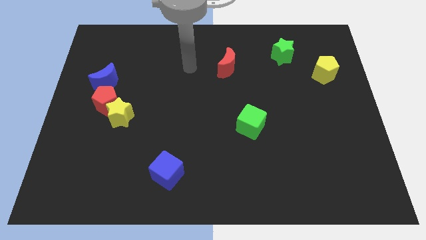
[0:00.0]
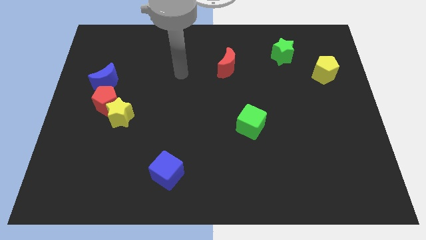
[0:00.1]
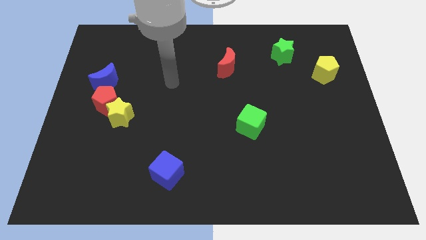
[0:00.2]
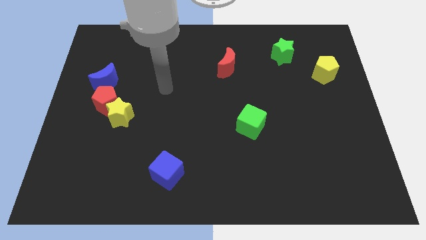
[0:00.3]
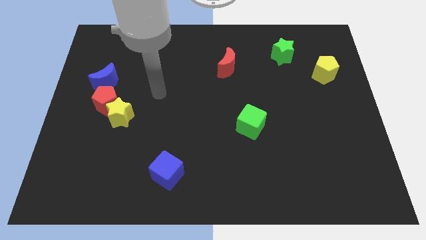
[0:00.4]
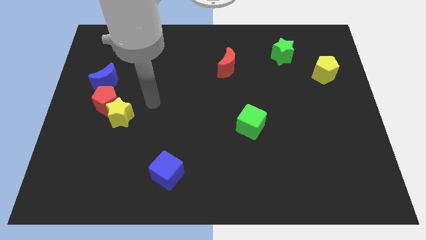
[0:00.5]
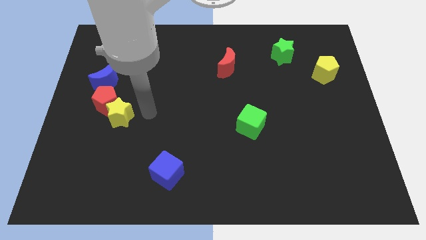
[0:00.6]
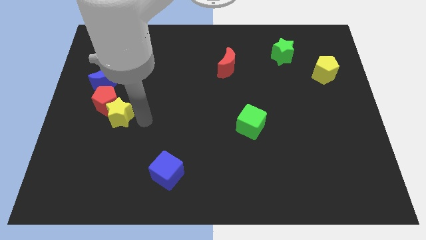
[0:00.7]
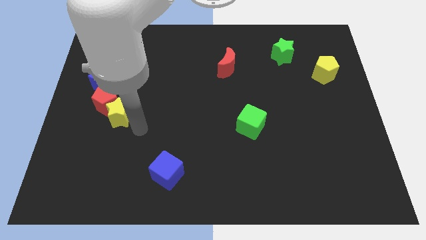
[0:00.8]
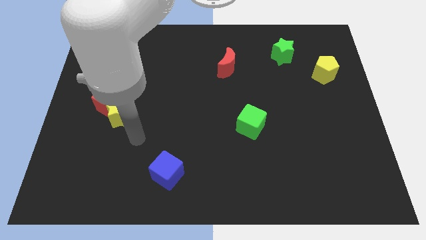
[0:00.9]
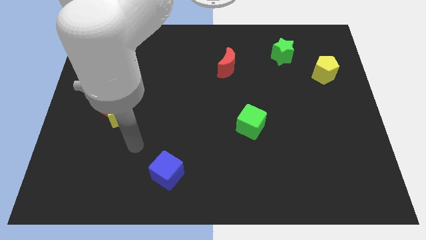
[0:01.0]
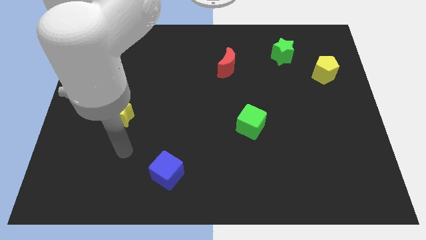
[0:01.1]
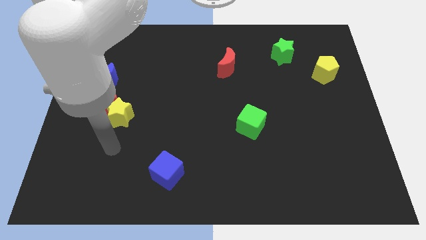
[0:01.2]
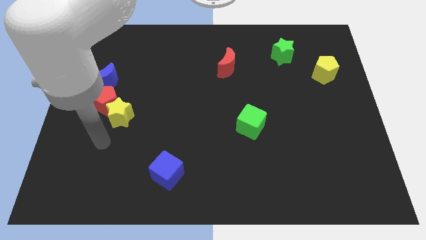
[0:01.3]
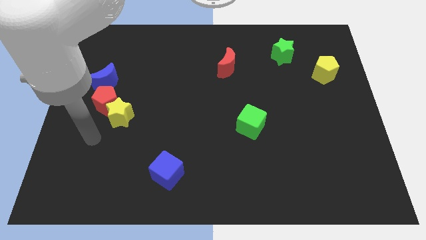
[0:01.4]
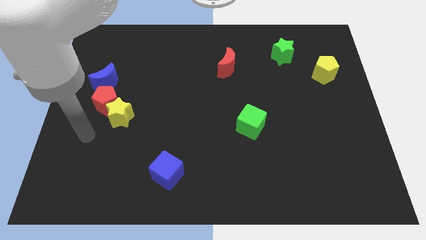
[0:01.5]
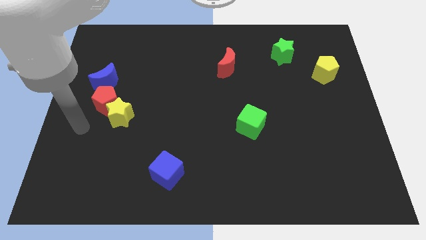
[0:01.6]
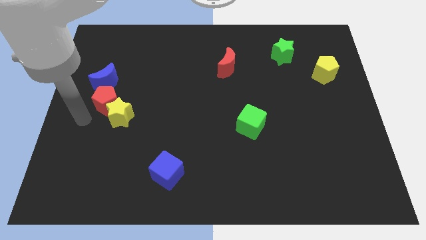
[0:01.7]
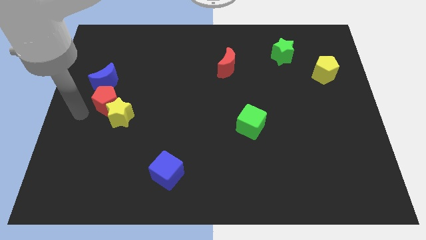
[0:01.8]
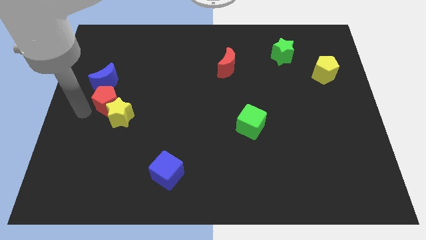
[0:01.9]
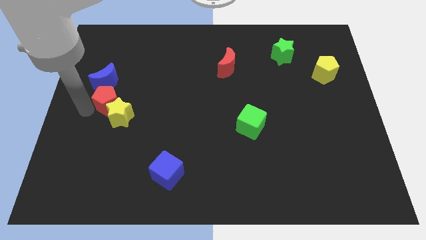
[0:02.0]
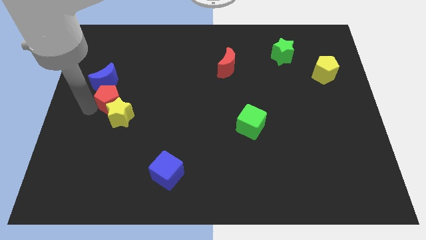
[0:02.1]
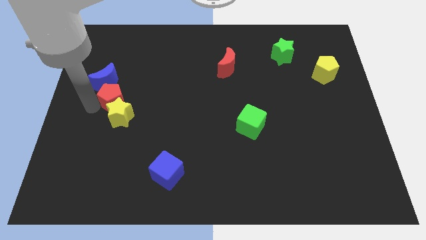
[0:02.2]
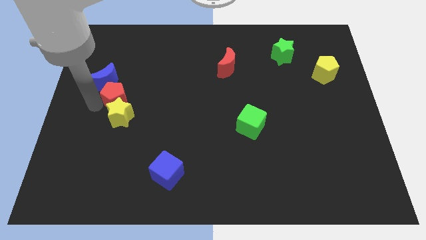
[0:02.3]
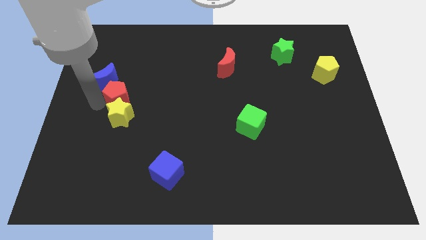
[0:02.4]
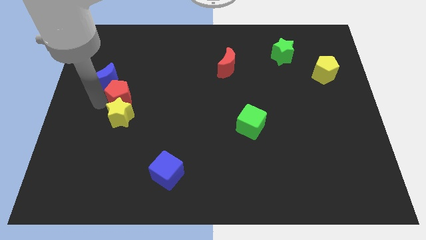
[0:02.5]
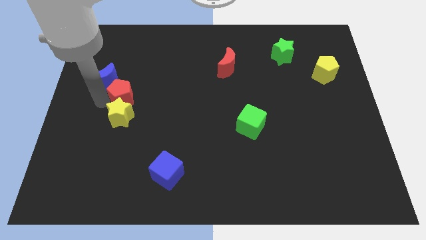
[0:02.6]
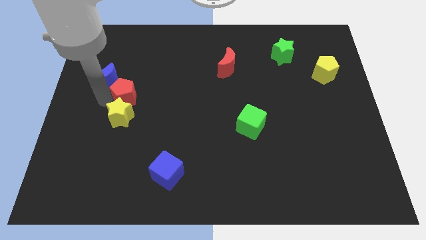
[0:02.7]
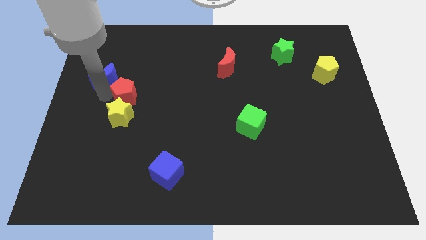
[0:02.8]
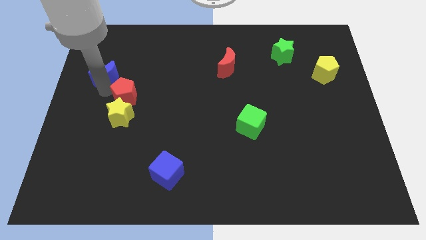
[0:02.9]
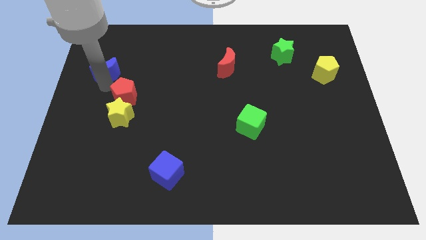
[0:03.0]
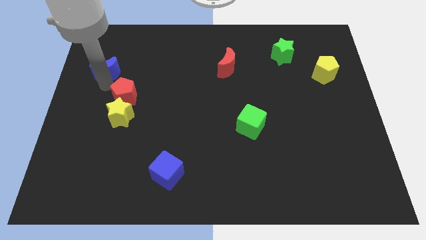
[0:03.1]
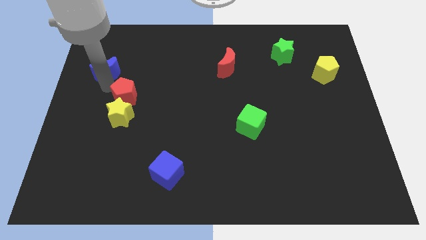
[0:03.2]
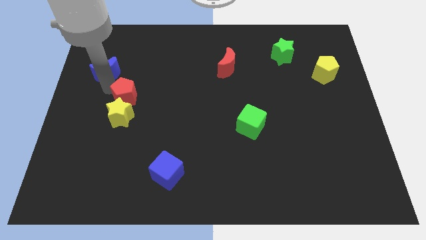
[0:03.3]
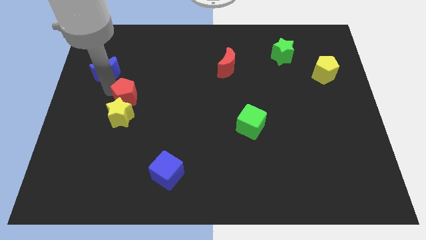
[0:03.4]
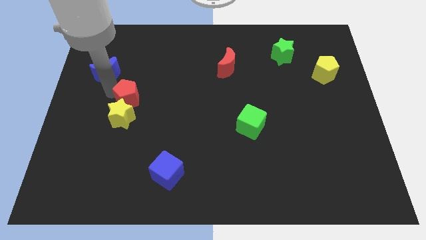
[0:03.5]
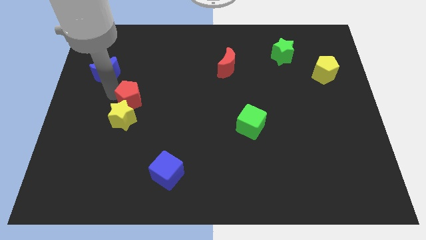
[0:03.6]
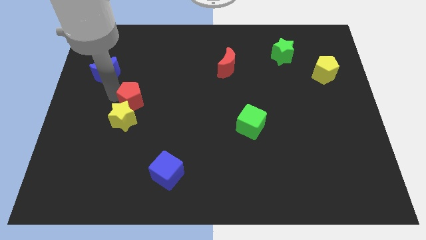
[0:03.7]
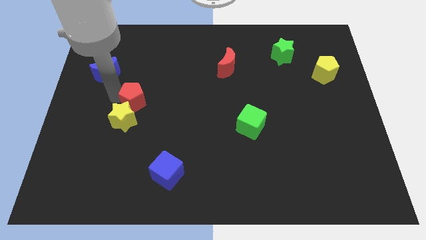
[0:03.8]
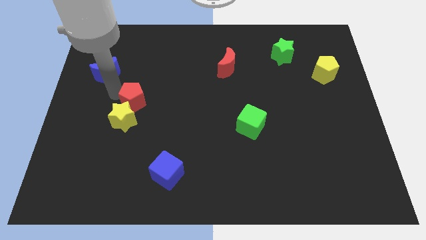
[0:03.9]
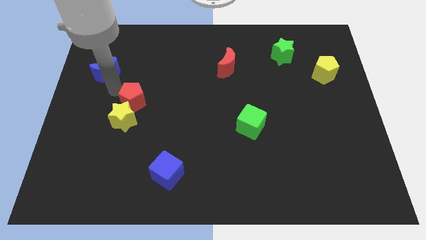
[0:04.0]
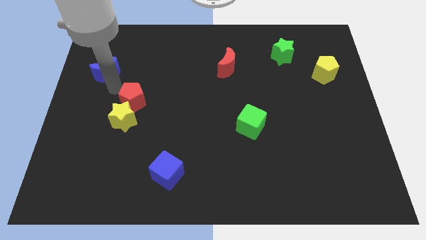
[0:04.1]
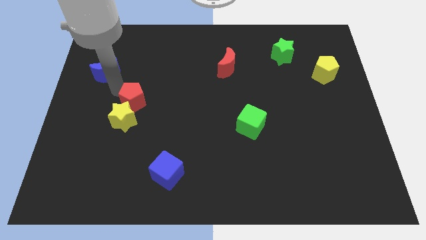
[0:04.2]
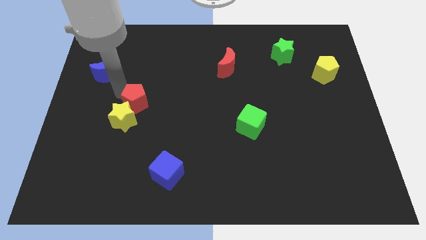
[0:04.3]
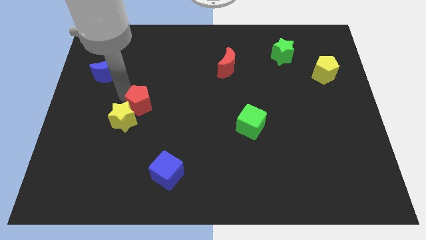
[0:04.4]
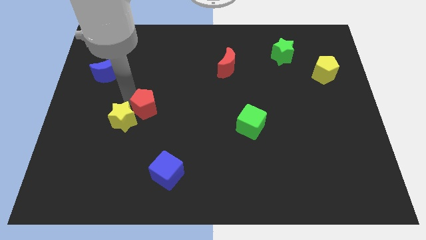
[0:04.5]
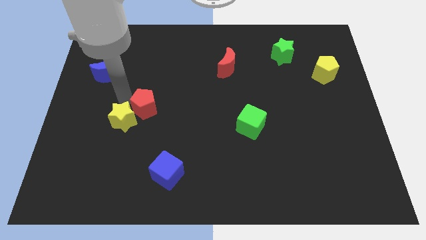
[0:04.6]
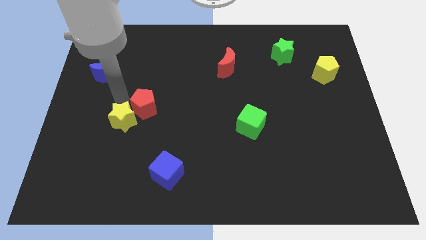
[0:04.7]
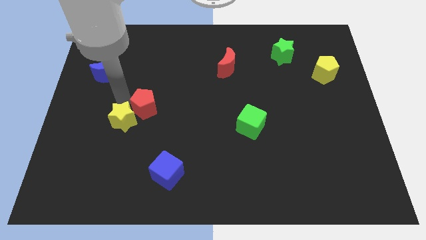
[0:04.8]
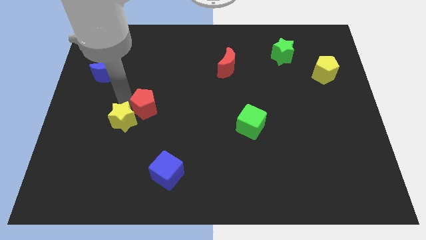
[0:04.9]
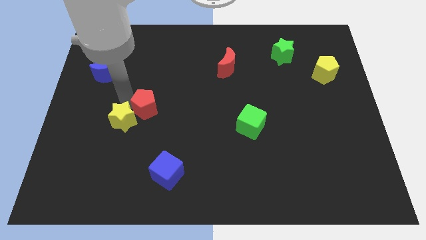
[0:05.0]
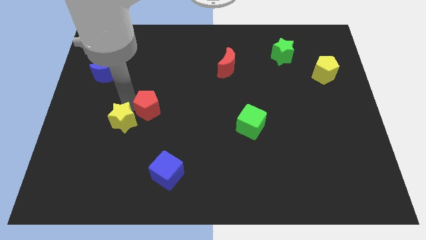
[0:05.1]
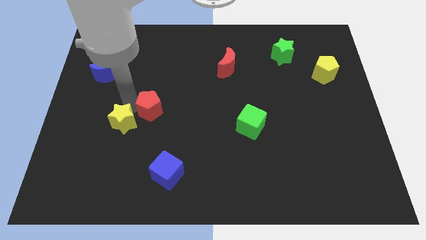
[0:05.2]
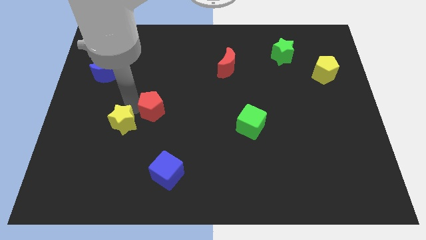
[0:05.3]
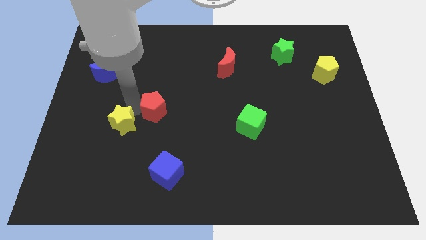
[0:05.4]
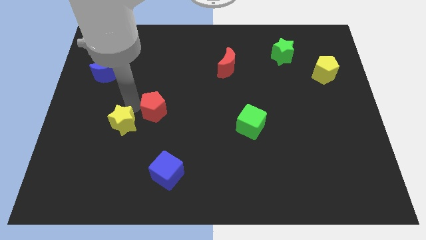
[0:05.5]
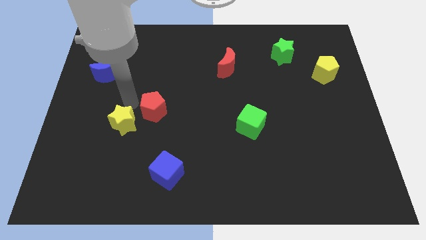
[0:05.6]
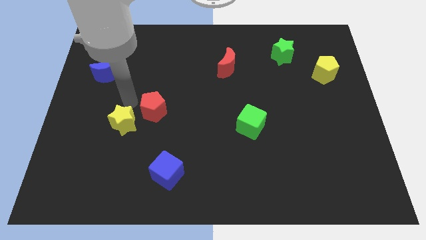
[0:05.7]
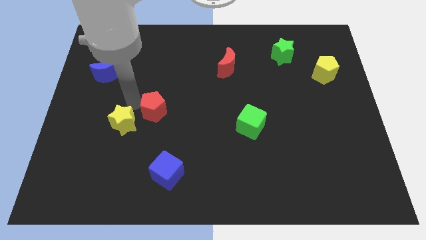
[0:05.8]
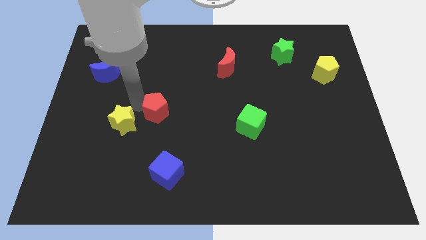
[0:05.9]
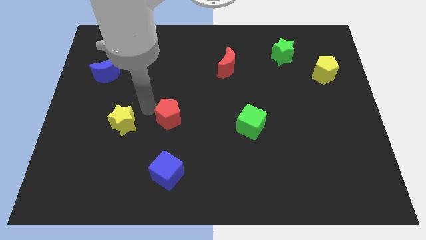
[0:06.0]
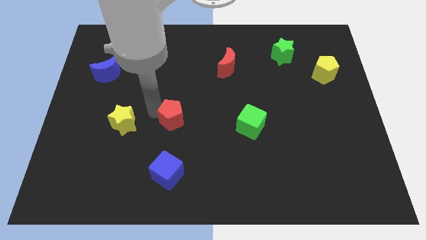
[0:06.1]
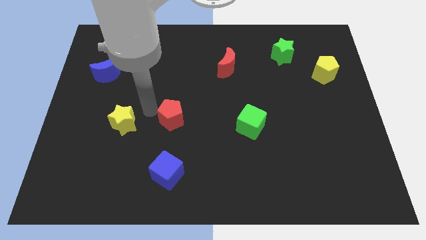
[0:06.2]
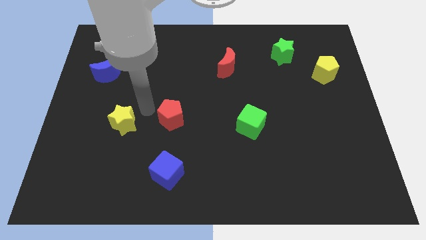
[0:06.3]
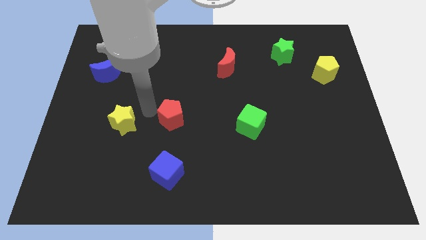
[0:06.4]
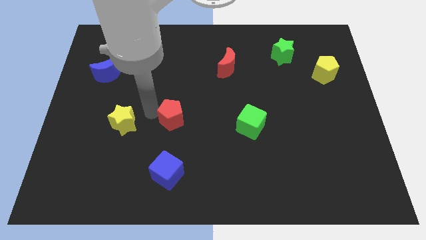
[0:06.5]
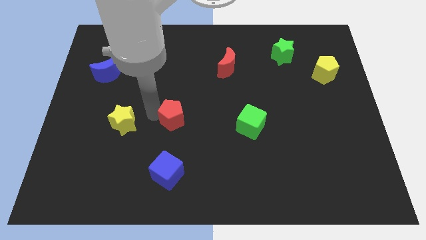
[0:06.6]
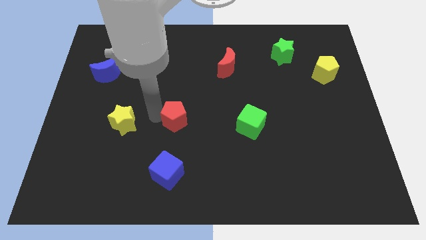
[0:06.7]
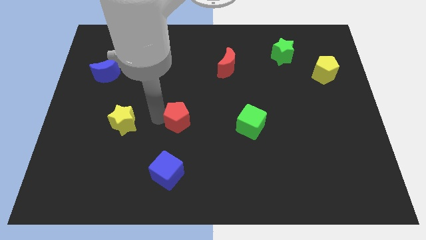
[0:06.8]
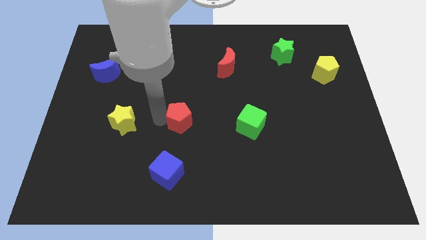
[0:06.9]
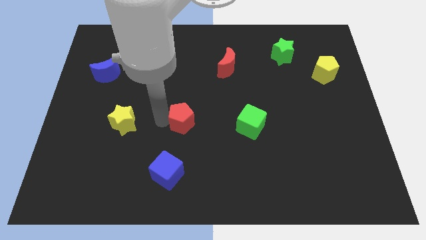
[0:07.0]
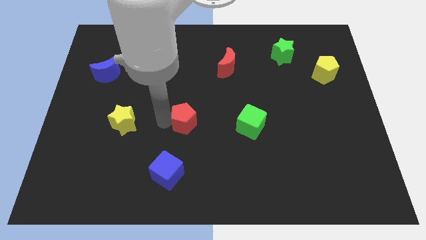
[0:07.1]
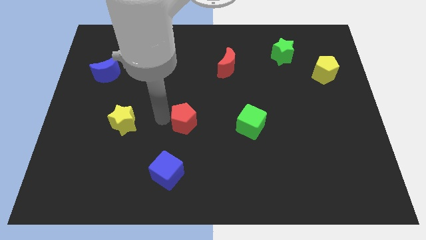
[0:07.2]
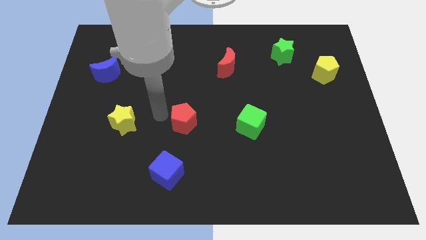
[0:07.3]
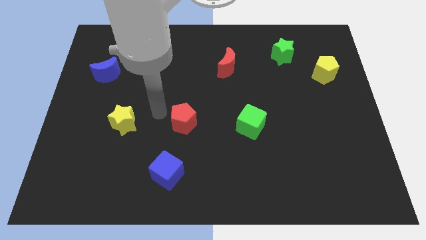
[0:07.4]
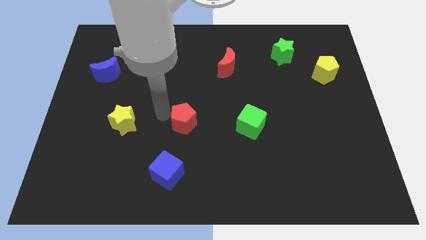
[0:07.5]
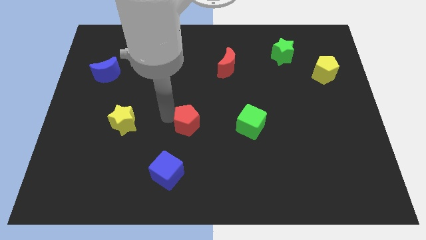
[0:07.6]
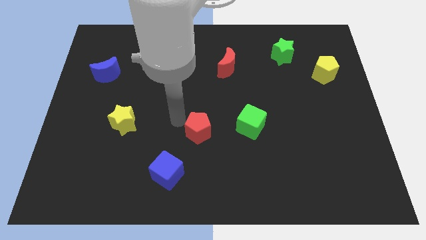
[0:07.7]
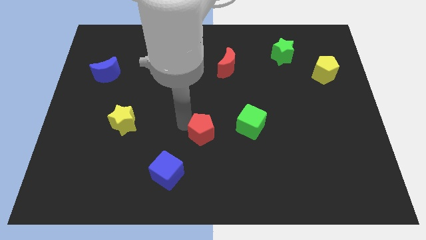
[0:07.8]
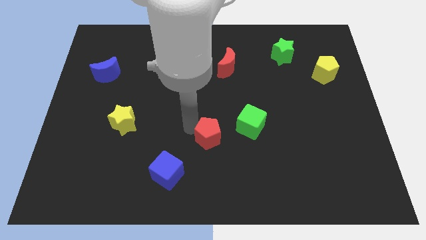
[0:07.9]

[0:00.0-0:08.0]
push the red pentagon to the bottom left of the green cube
